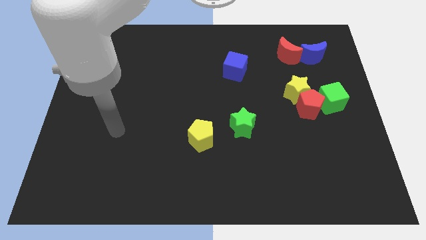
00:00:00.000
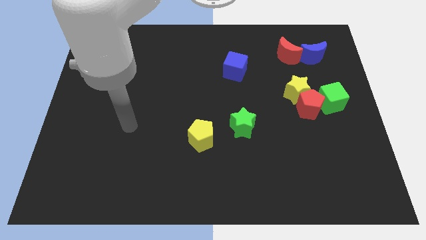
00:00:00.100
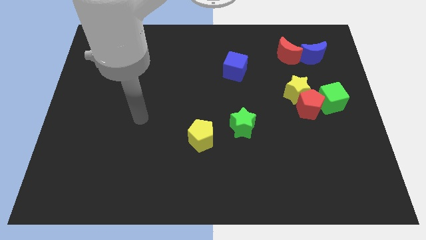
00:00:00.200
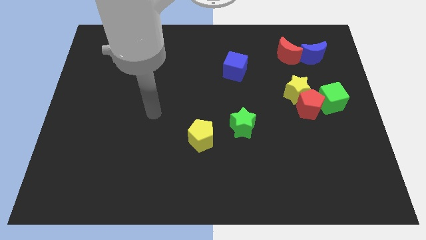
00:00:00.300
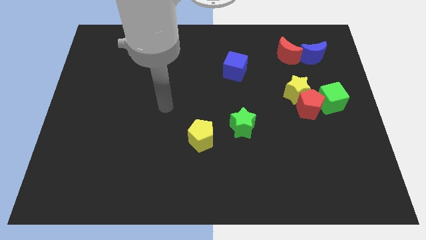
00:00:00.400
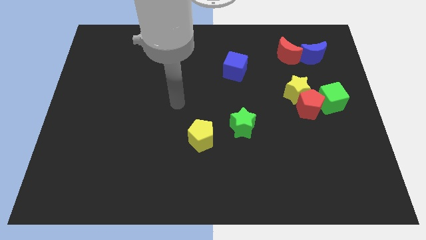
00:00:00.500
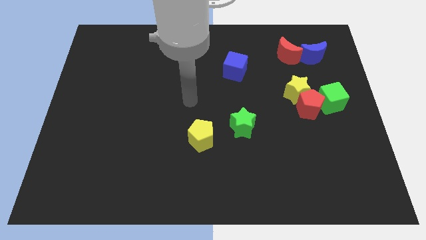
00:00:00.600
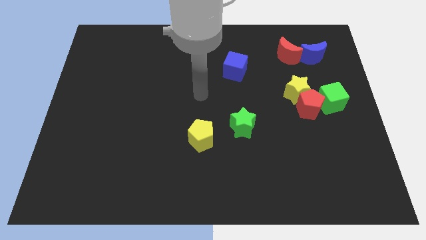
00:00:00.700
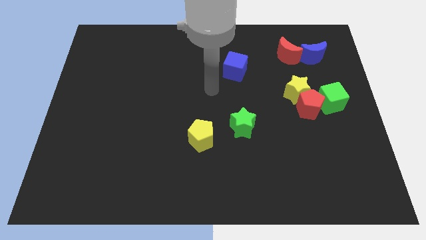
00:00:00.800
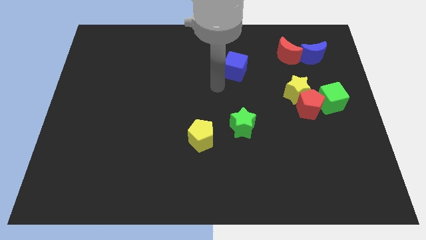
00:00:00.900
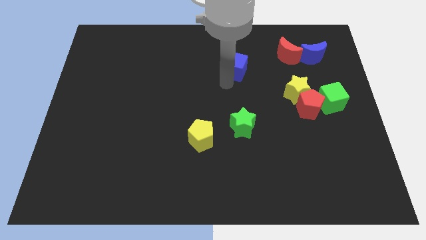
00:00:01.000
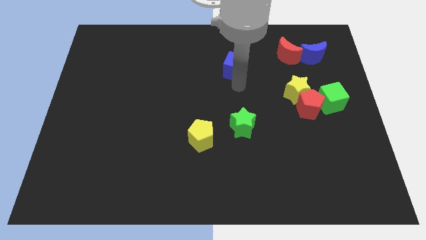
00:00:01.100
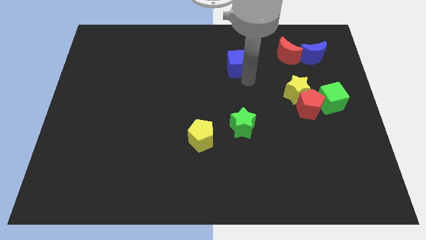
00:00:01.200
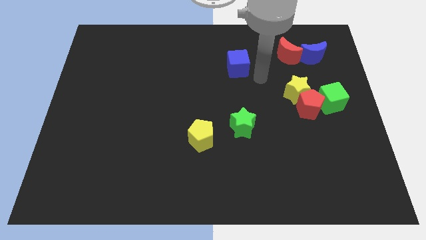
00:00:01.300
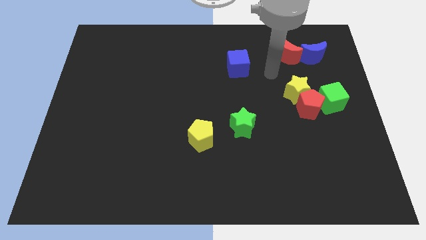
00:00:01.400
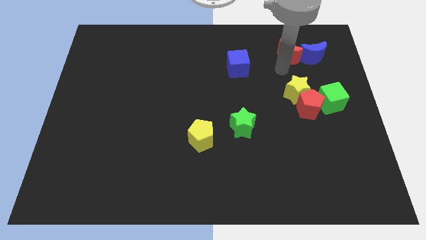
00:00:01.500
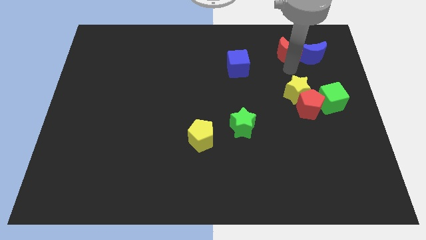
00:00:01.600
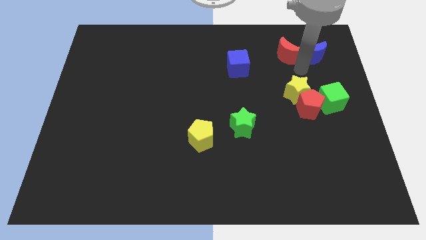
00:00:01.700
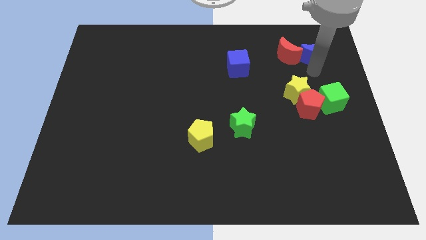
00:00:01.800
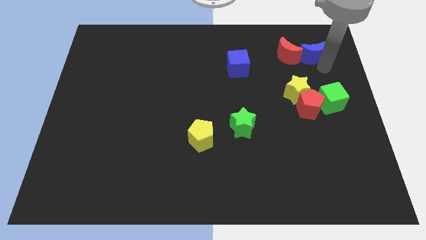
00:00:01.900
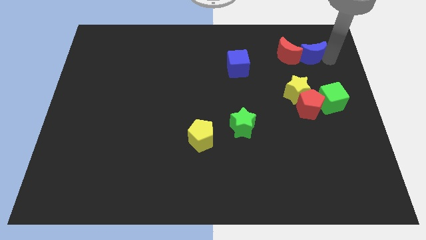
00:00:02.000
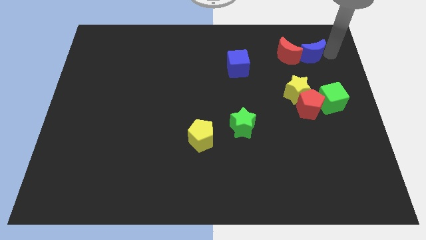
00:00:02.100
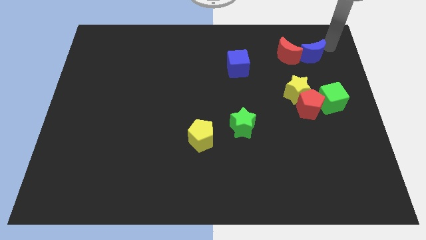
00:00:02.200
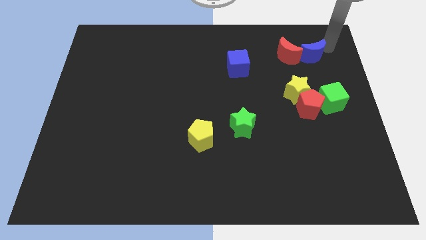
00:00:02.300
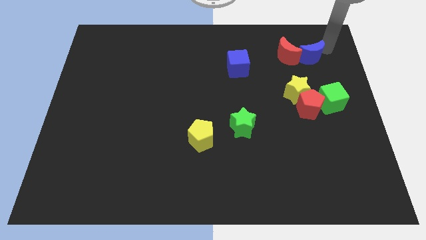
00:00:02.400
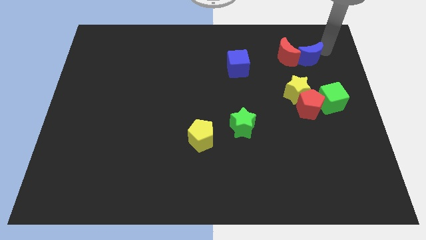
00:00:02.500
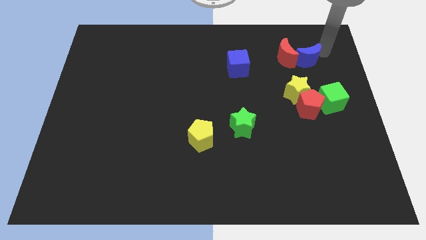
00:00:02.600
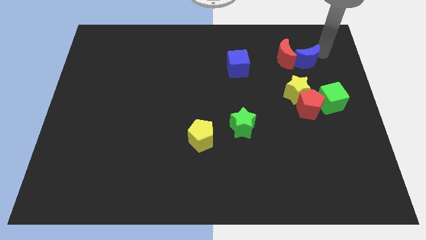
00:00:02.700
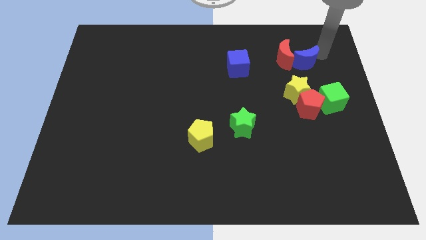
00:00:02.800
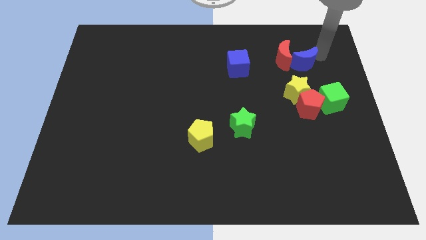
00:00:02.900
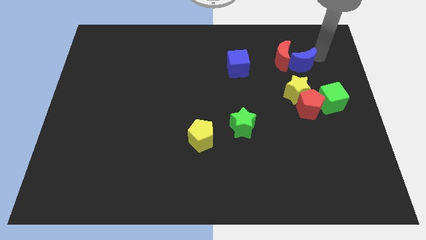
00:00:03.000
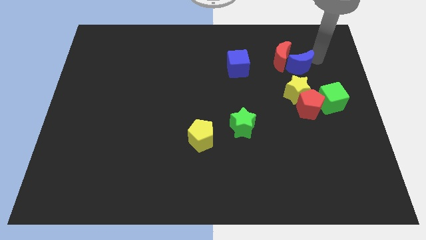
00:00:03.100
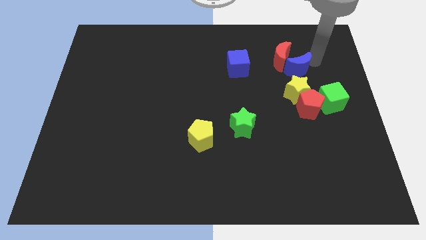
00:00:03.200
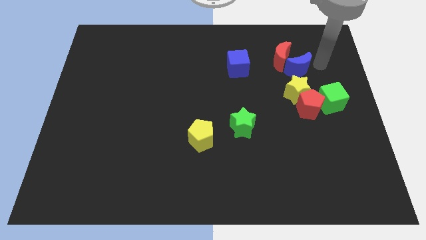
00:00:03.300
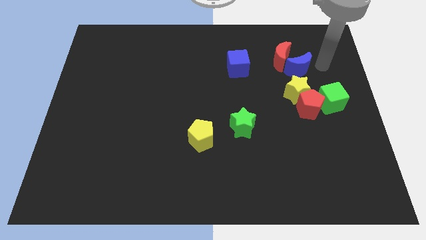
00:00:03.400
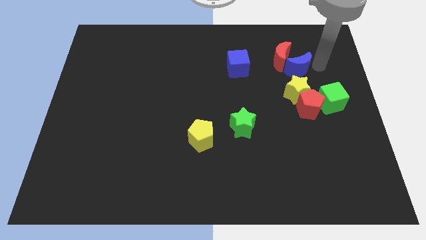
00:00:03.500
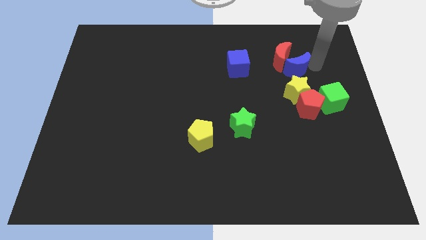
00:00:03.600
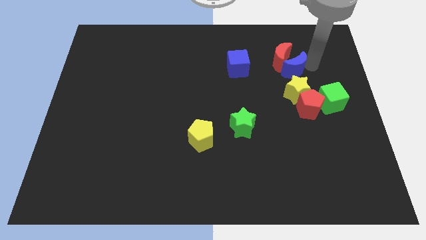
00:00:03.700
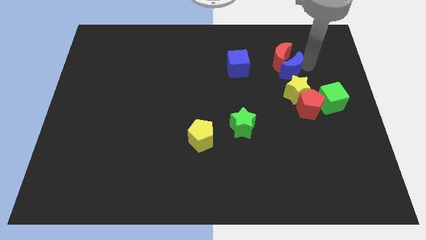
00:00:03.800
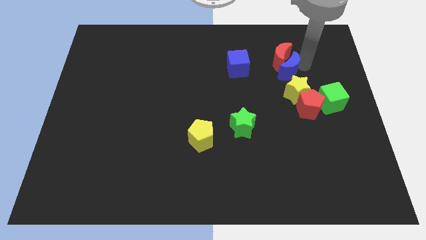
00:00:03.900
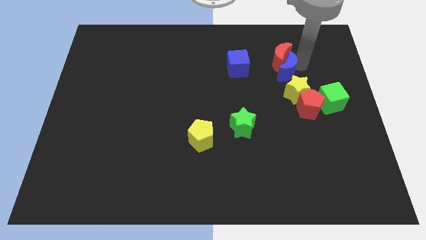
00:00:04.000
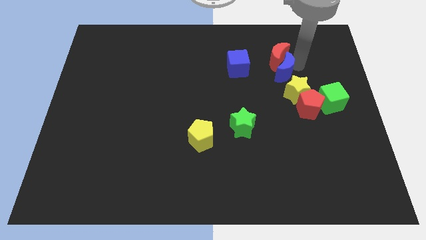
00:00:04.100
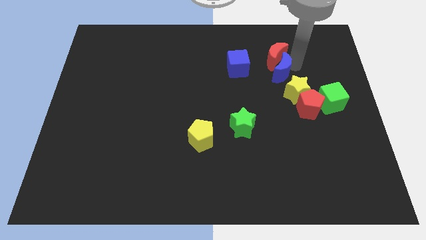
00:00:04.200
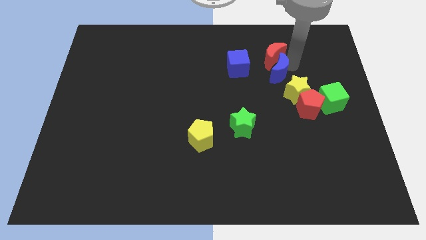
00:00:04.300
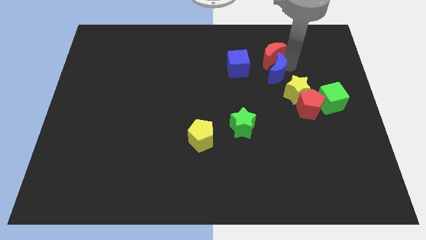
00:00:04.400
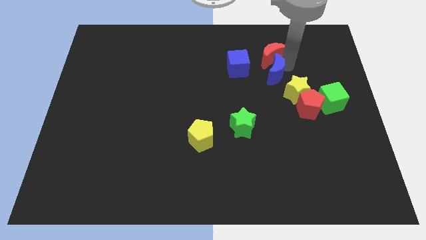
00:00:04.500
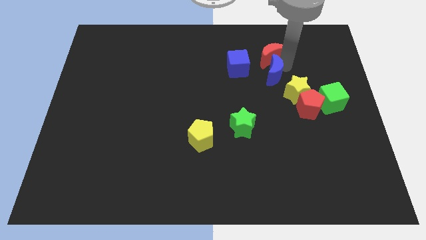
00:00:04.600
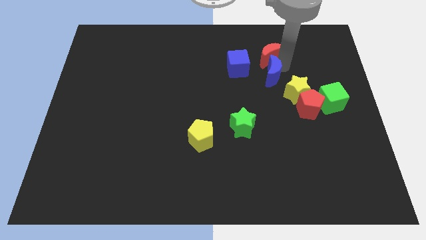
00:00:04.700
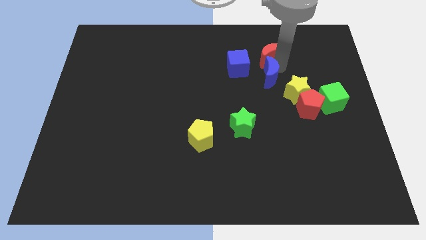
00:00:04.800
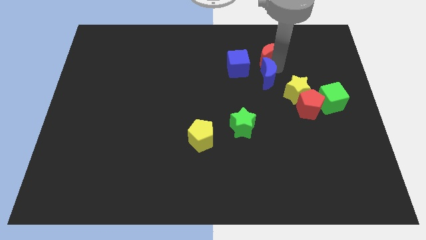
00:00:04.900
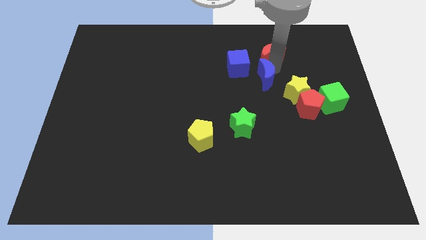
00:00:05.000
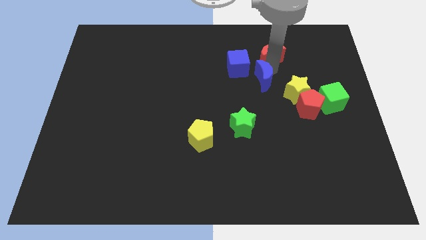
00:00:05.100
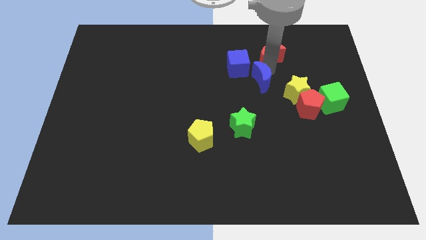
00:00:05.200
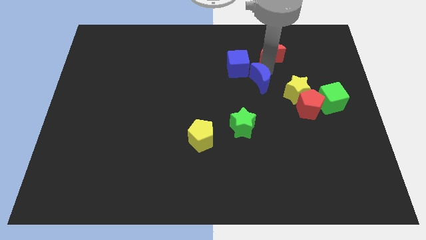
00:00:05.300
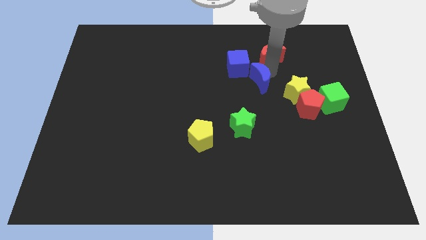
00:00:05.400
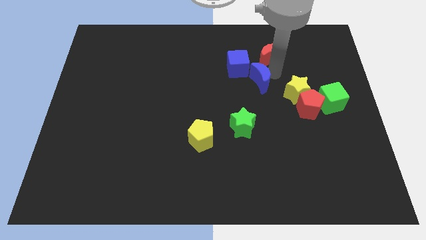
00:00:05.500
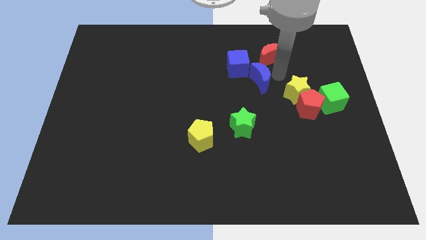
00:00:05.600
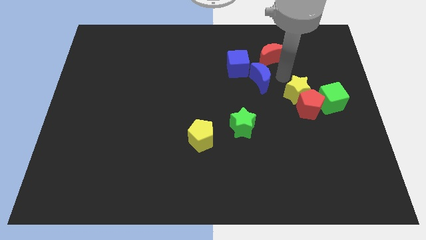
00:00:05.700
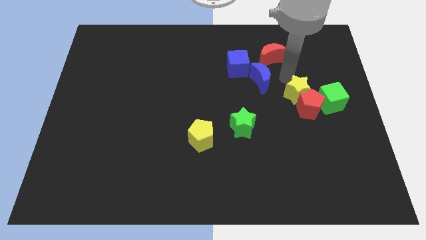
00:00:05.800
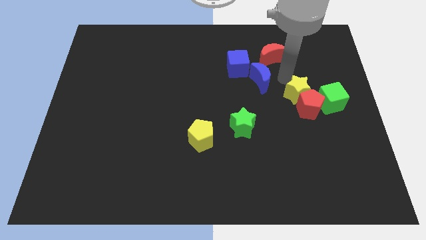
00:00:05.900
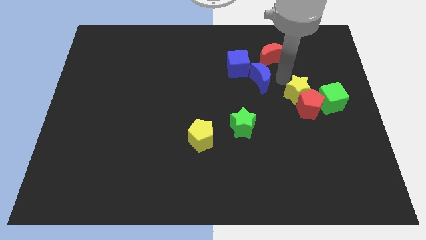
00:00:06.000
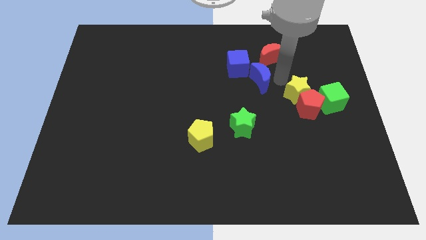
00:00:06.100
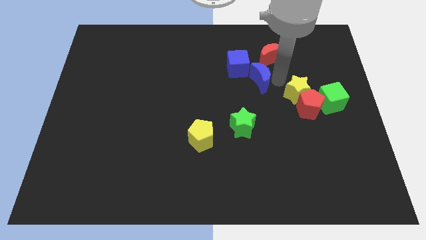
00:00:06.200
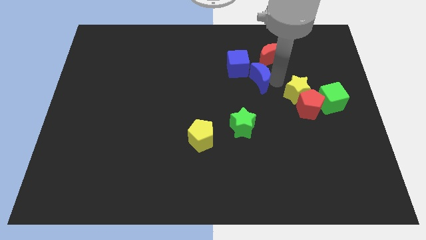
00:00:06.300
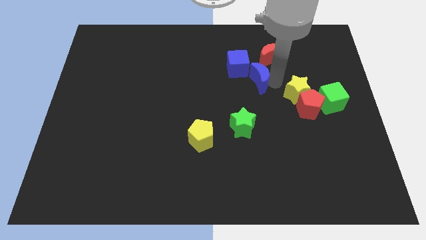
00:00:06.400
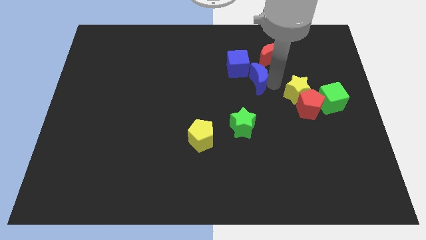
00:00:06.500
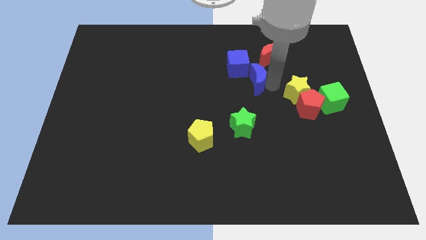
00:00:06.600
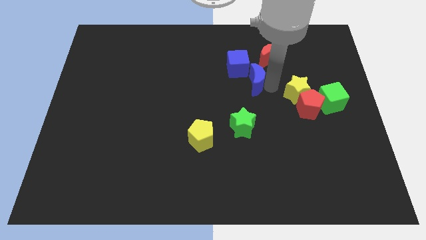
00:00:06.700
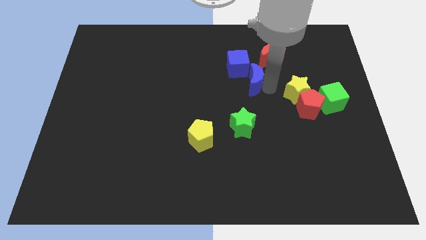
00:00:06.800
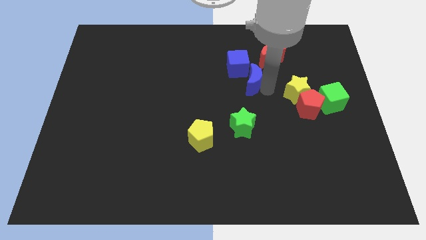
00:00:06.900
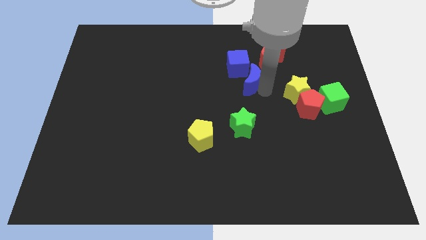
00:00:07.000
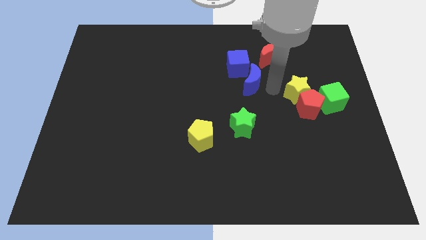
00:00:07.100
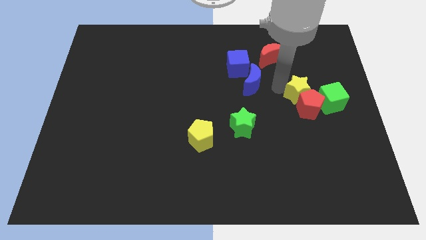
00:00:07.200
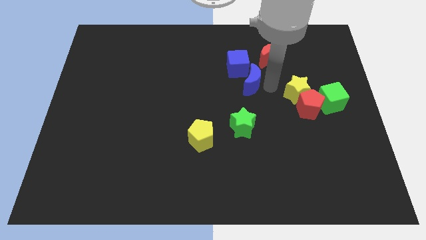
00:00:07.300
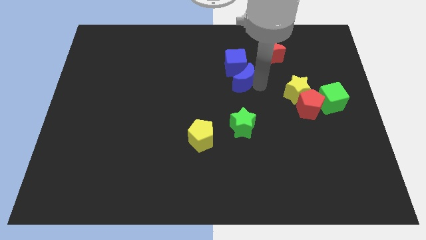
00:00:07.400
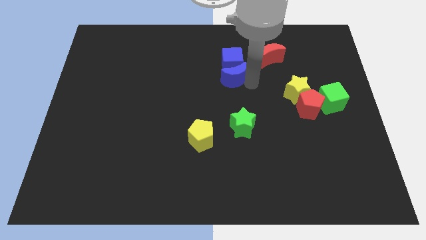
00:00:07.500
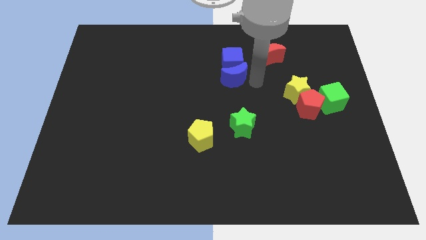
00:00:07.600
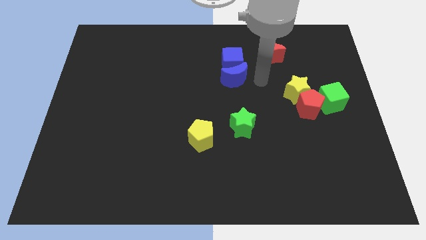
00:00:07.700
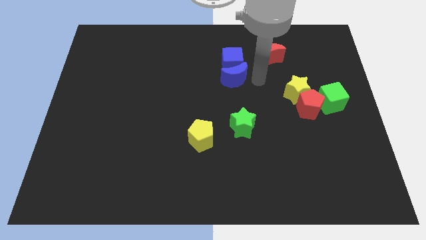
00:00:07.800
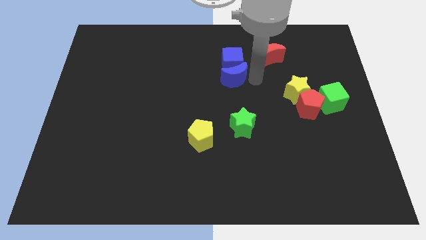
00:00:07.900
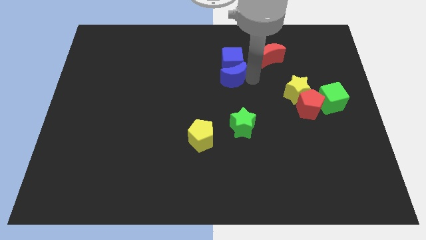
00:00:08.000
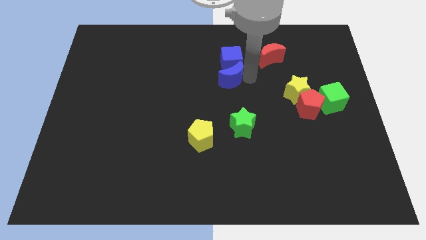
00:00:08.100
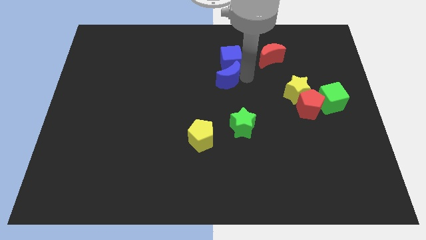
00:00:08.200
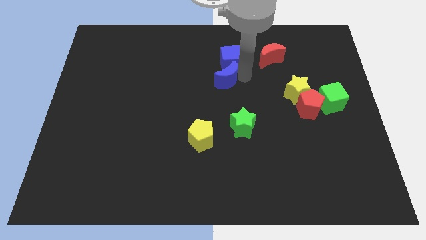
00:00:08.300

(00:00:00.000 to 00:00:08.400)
push the blue moon left
